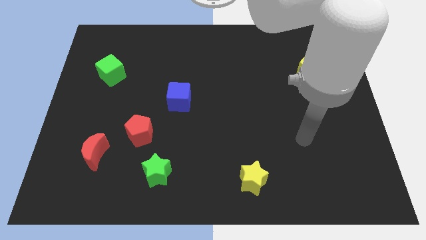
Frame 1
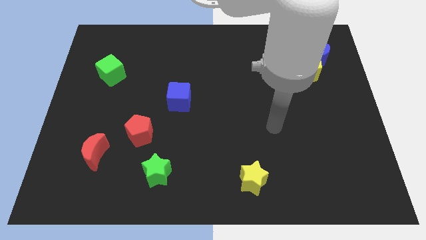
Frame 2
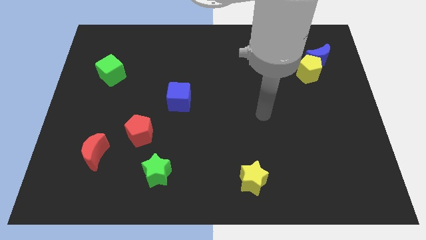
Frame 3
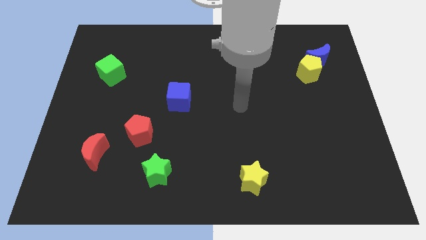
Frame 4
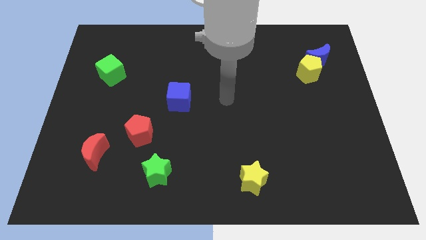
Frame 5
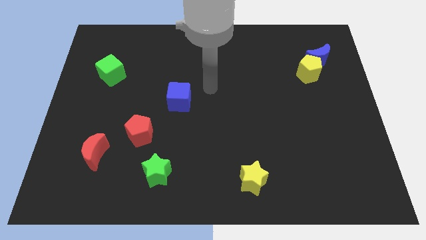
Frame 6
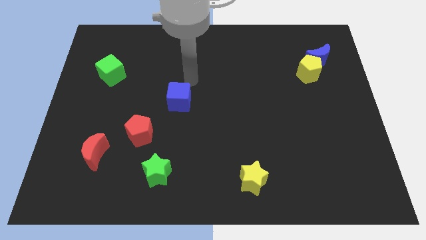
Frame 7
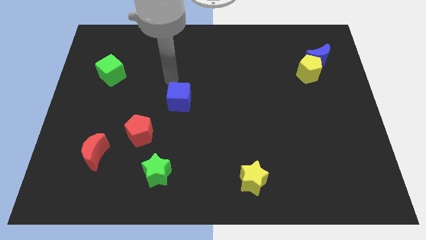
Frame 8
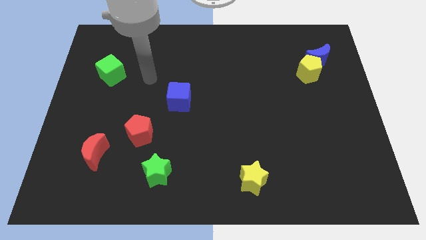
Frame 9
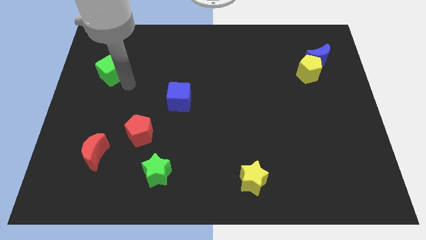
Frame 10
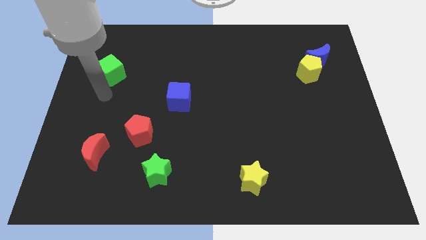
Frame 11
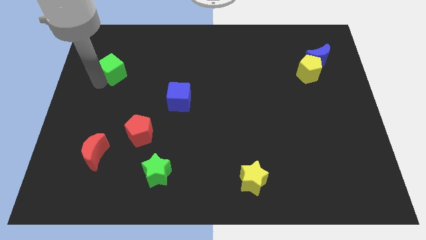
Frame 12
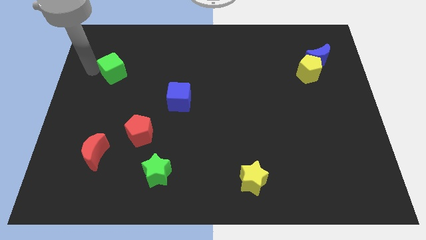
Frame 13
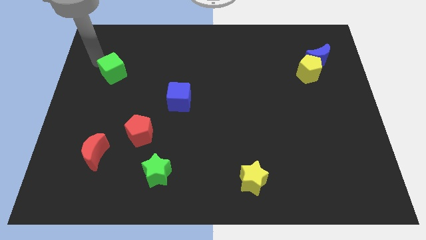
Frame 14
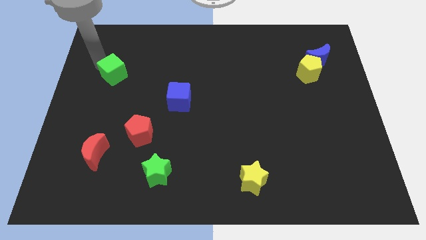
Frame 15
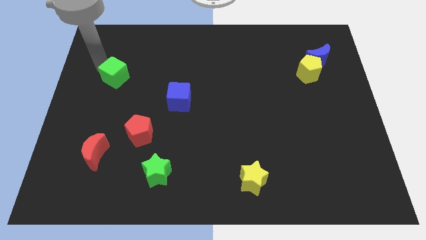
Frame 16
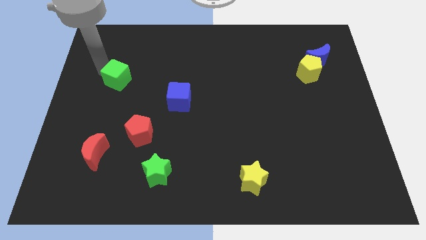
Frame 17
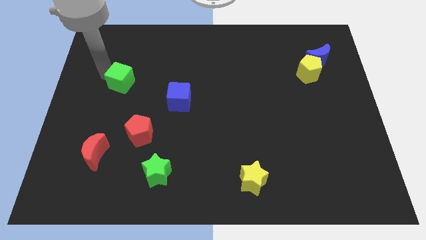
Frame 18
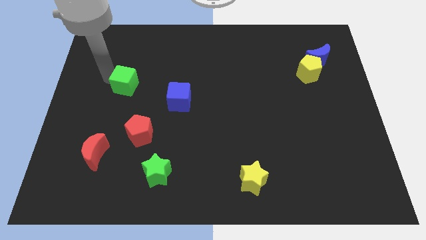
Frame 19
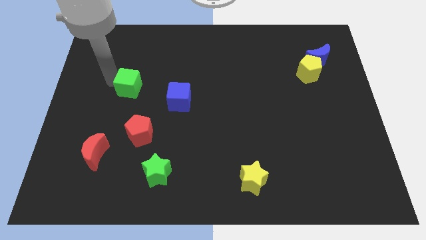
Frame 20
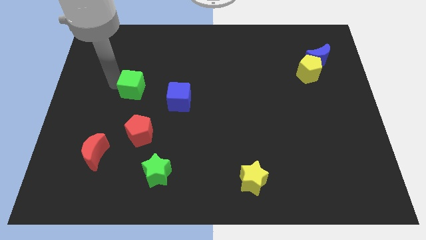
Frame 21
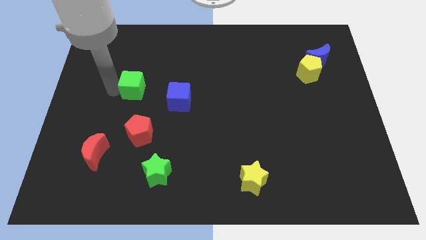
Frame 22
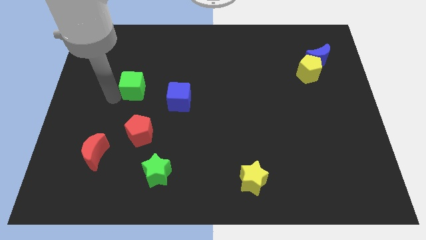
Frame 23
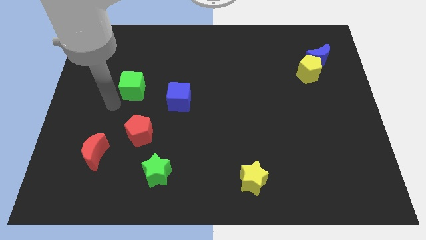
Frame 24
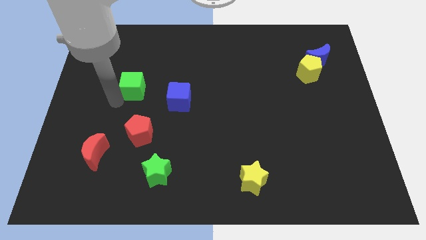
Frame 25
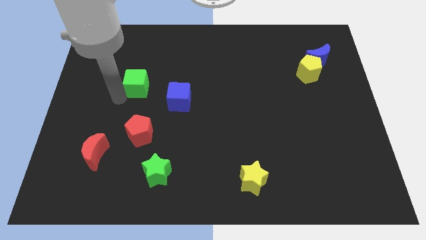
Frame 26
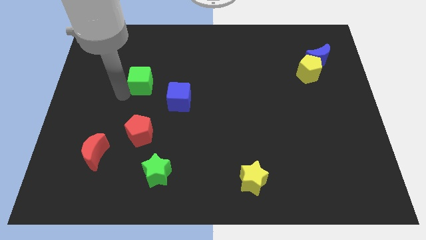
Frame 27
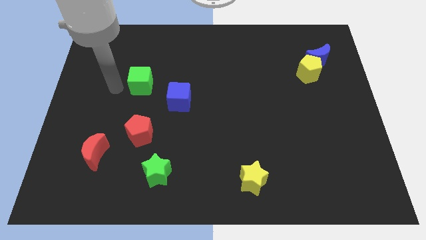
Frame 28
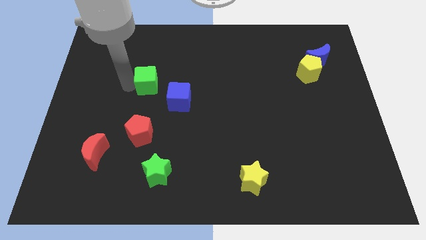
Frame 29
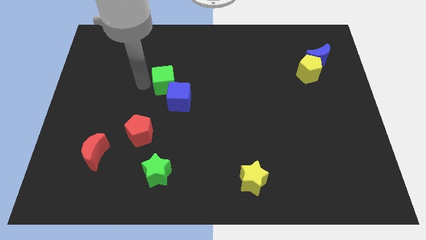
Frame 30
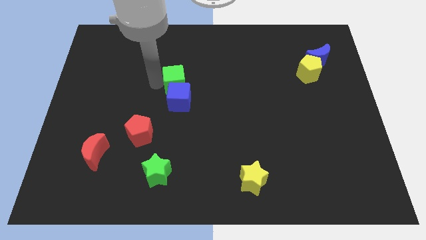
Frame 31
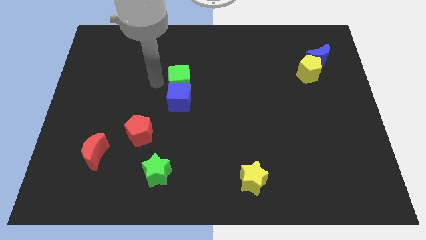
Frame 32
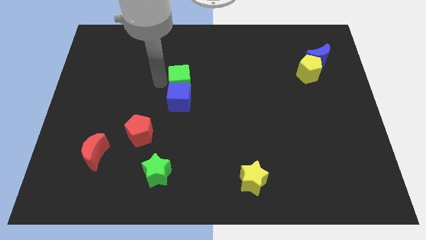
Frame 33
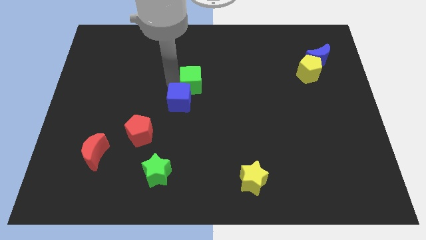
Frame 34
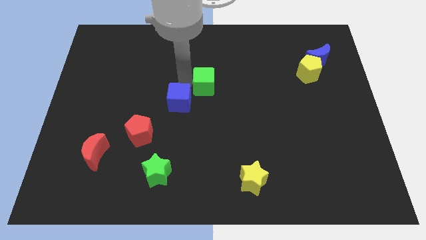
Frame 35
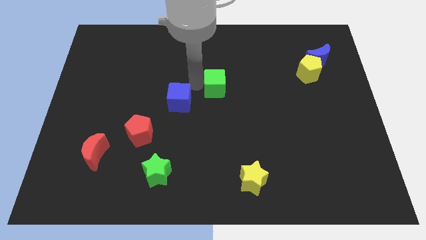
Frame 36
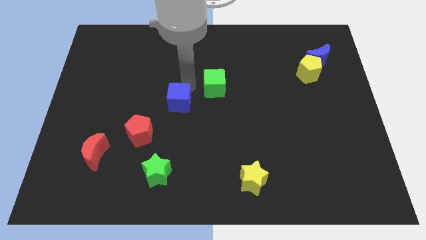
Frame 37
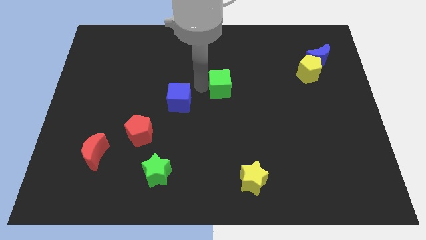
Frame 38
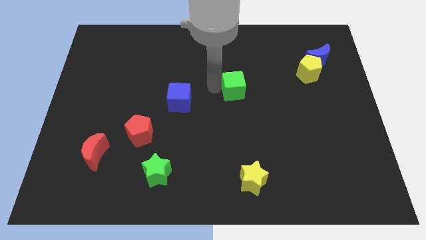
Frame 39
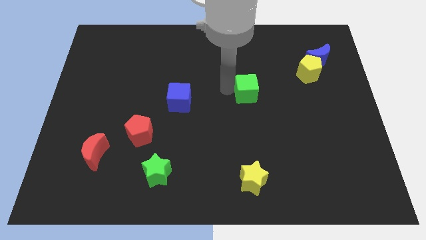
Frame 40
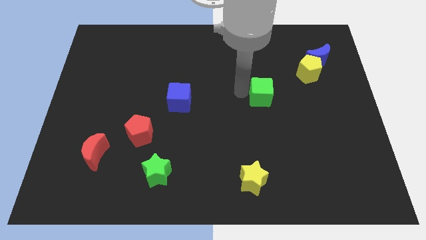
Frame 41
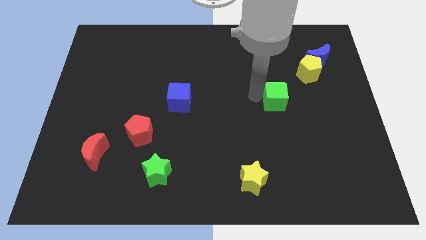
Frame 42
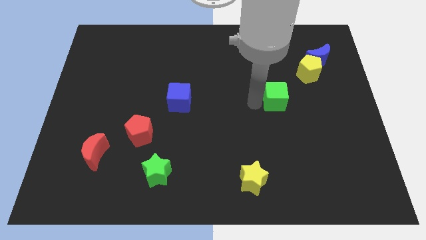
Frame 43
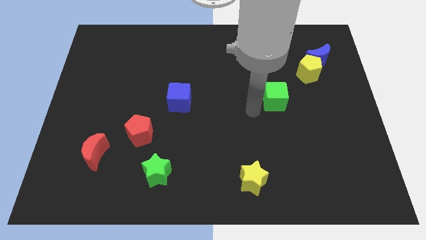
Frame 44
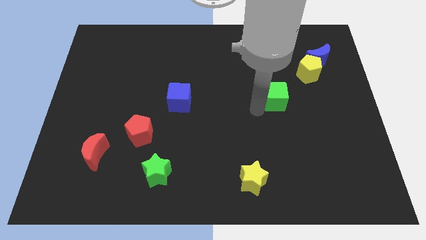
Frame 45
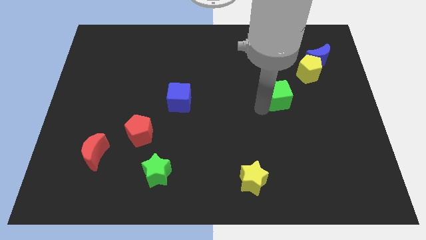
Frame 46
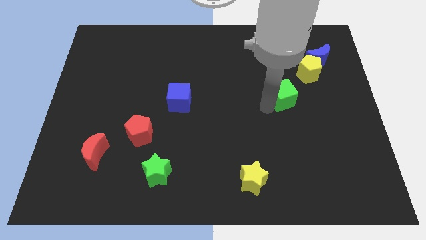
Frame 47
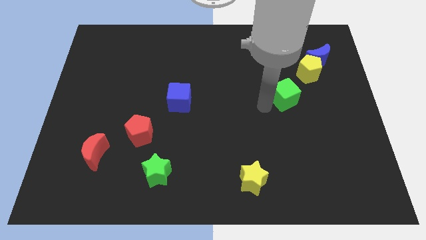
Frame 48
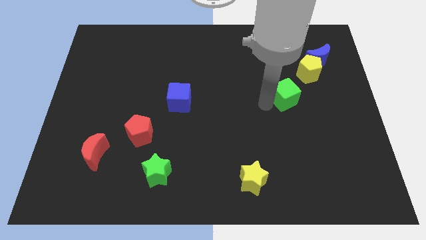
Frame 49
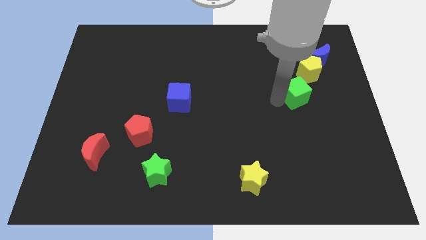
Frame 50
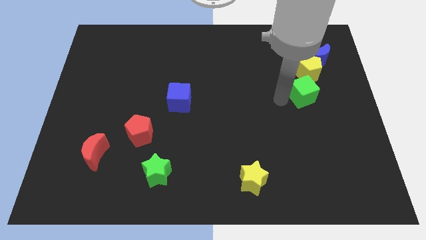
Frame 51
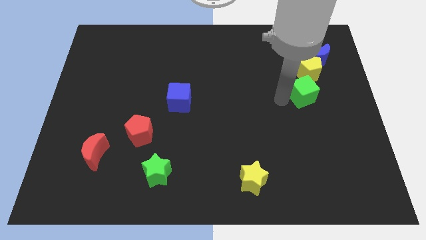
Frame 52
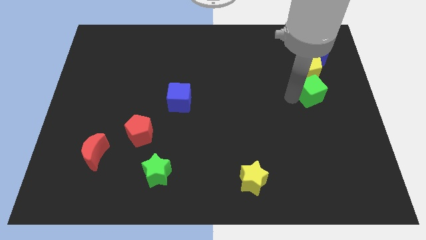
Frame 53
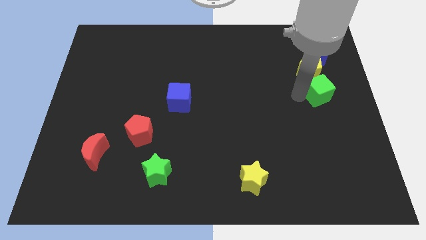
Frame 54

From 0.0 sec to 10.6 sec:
move the green cube to the center right

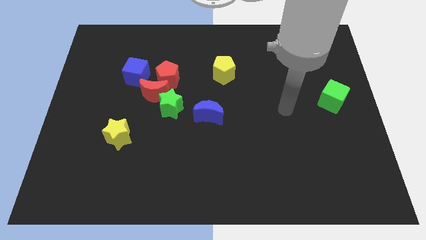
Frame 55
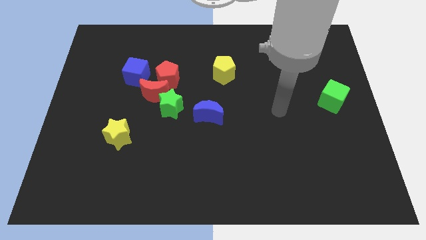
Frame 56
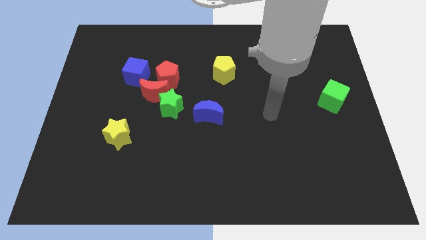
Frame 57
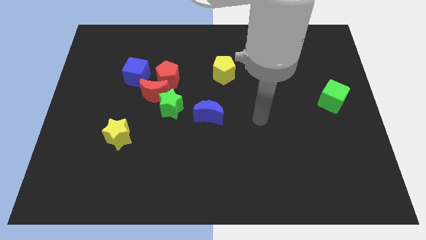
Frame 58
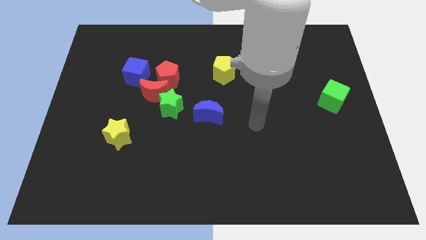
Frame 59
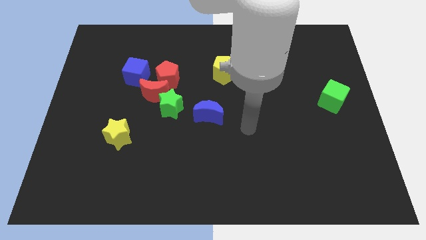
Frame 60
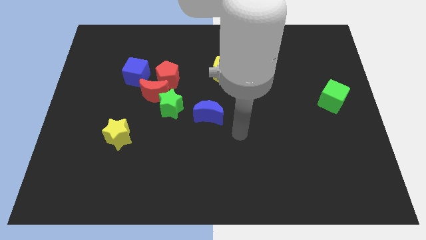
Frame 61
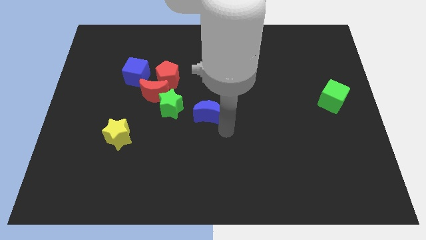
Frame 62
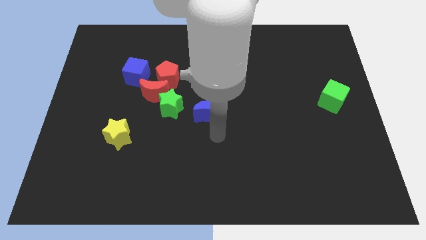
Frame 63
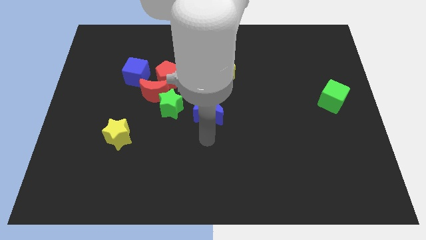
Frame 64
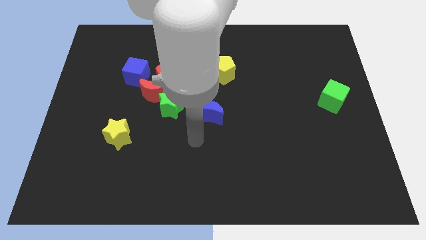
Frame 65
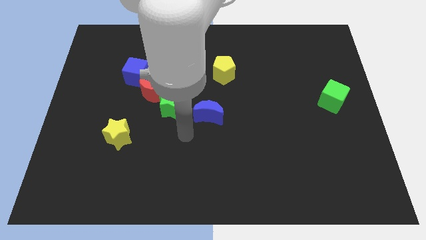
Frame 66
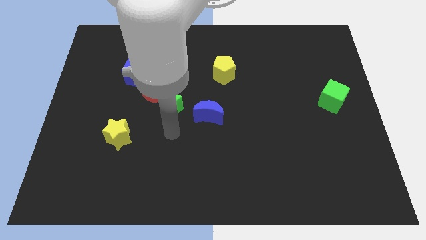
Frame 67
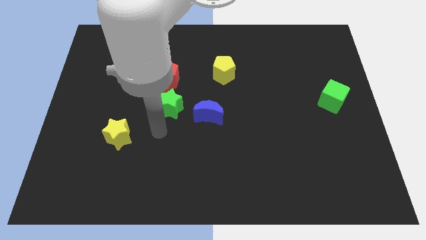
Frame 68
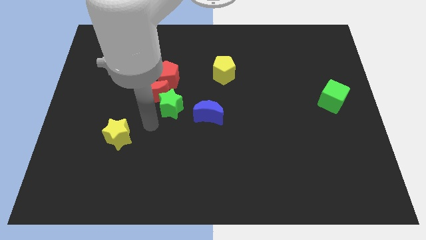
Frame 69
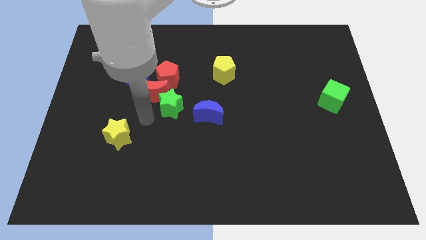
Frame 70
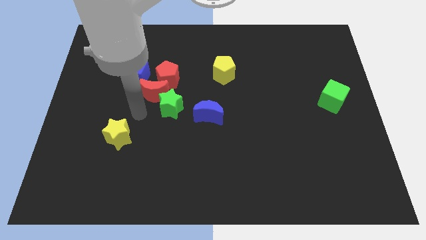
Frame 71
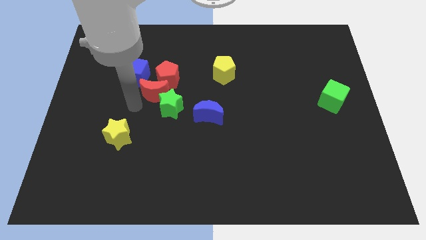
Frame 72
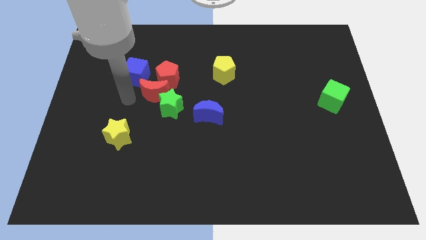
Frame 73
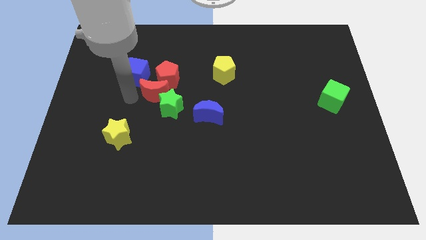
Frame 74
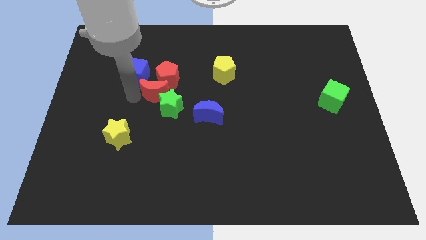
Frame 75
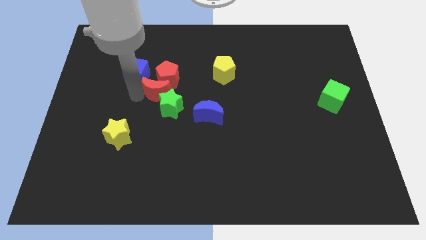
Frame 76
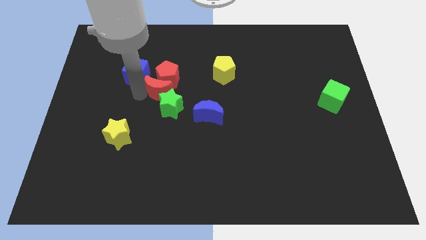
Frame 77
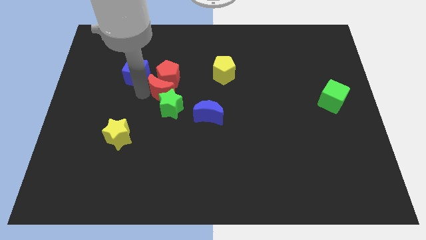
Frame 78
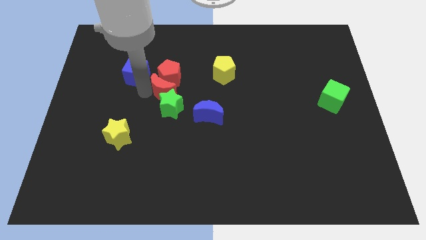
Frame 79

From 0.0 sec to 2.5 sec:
put the red moon to the middle of the board
